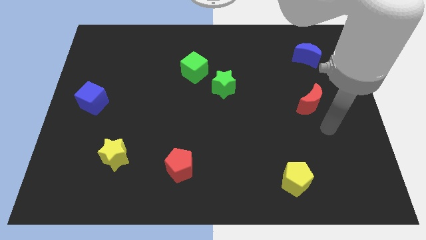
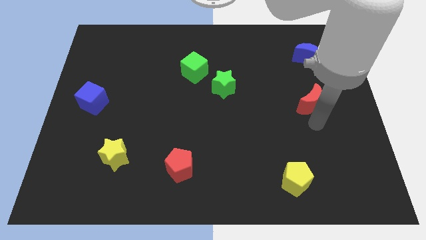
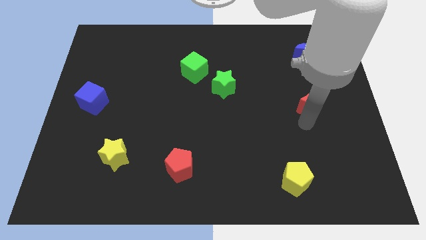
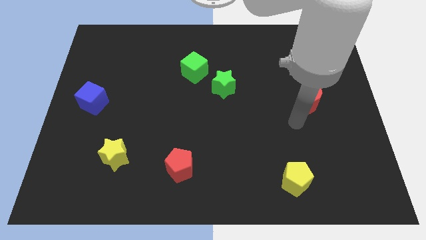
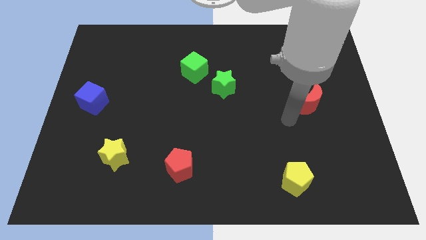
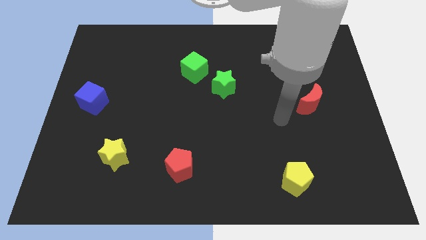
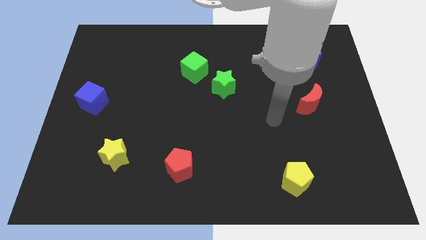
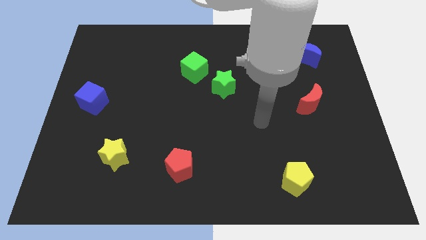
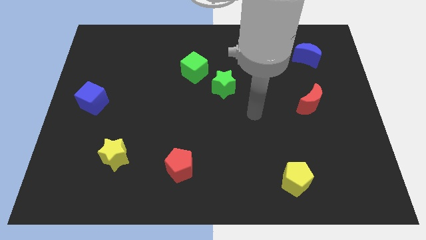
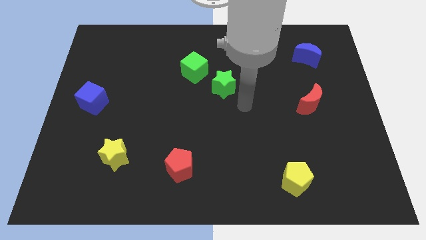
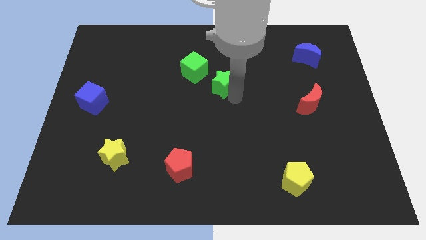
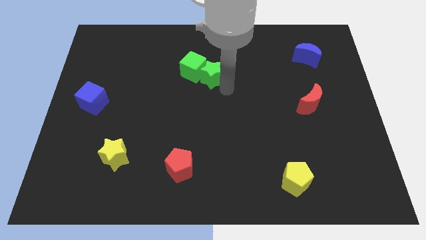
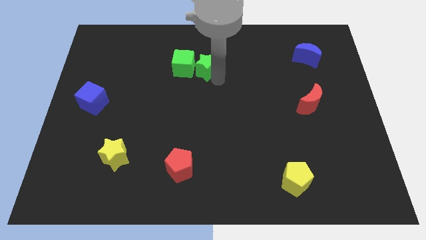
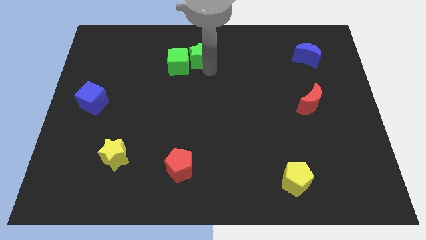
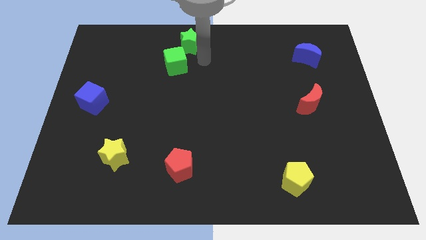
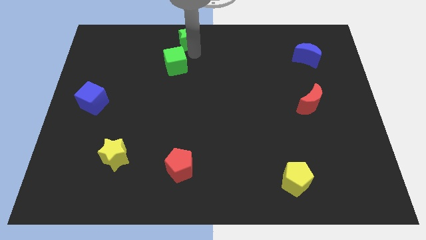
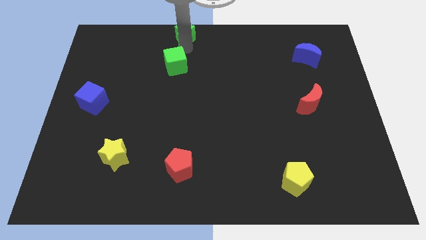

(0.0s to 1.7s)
separate the green cube from the green star

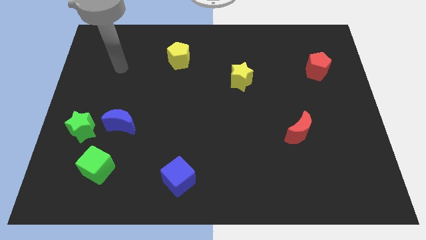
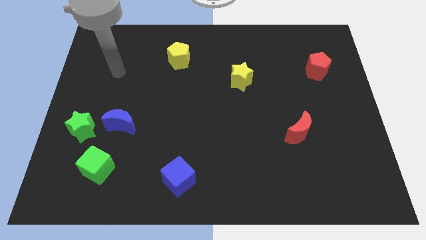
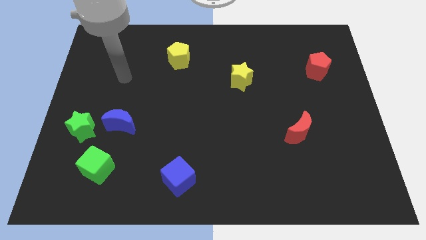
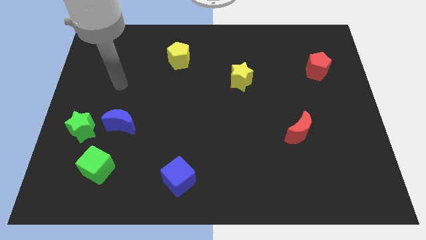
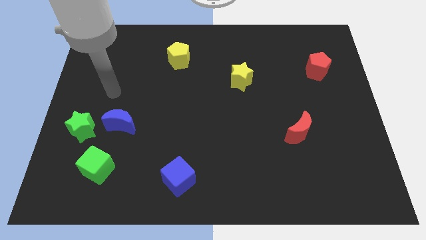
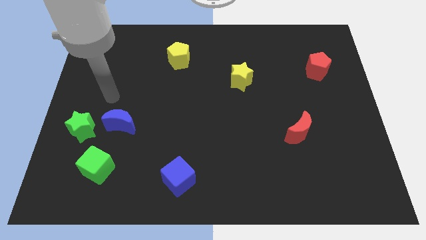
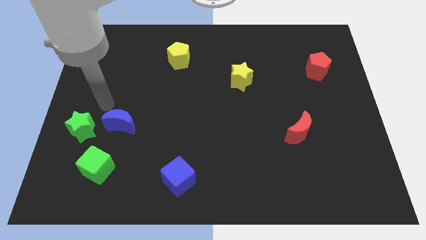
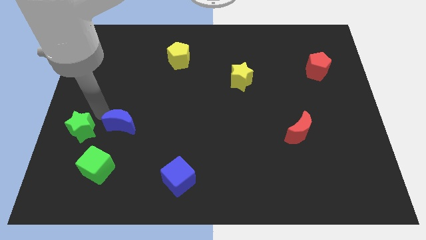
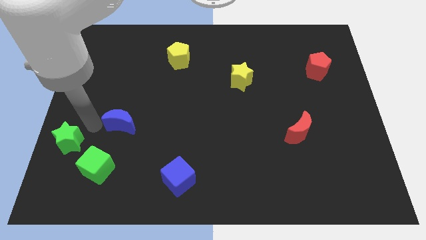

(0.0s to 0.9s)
move the blue moon away from the green star

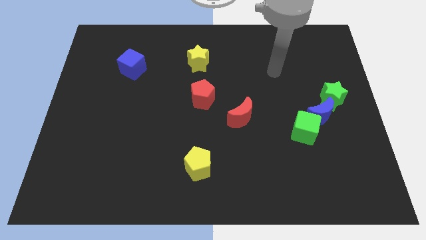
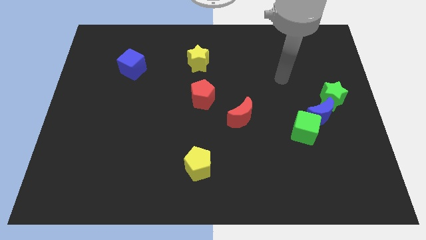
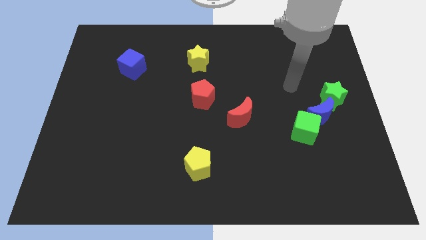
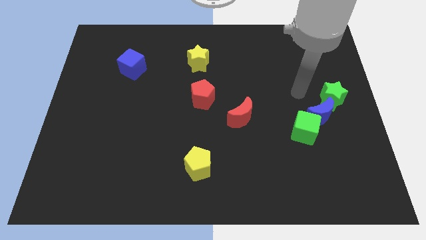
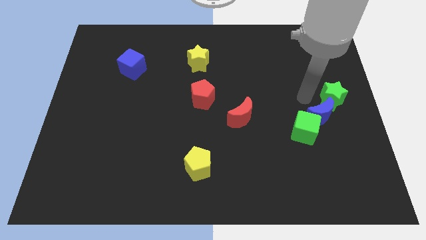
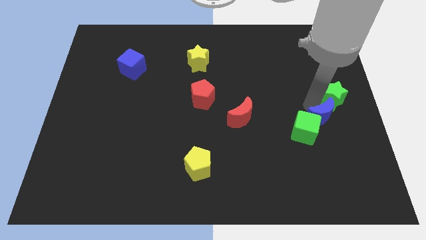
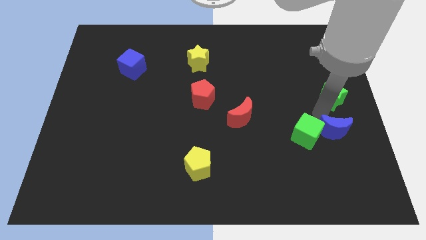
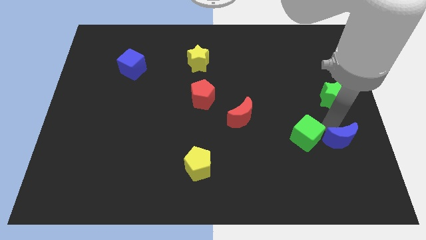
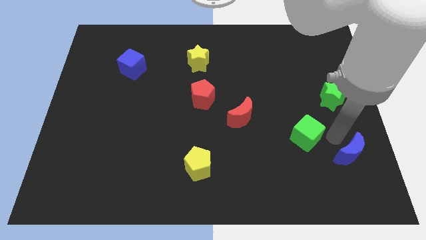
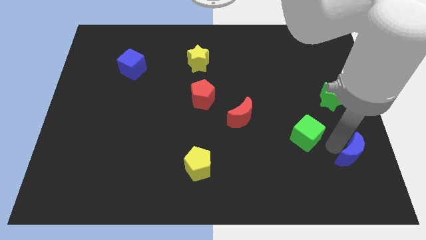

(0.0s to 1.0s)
move the green cube away from the blue moon

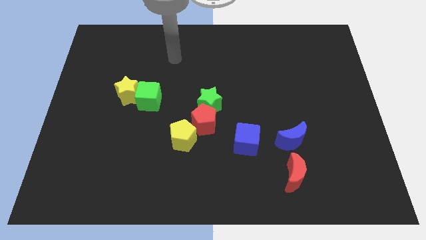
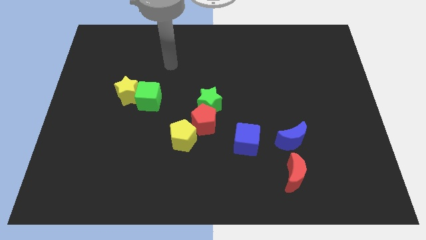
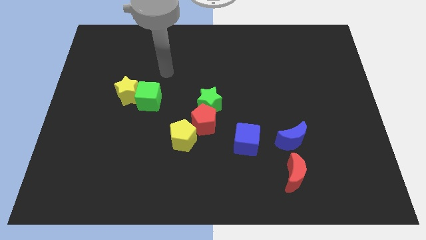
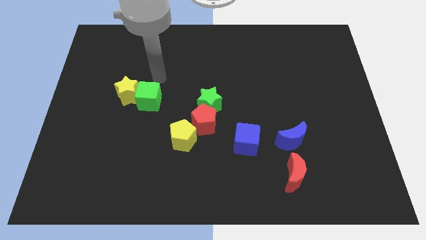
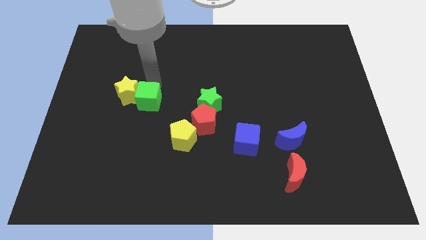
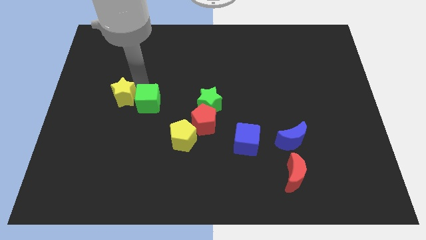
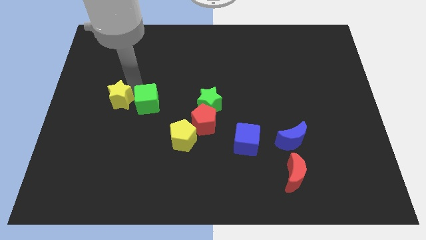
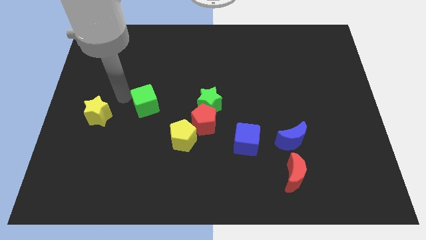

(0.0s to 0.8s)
separate the green cube from the yellow star

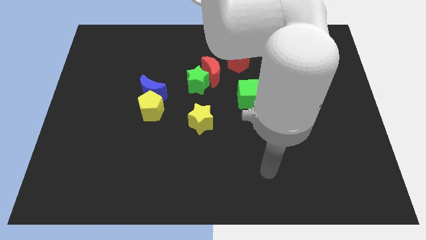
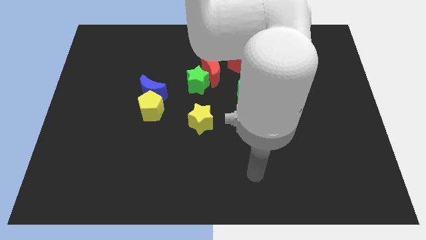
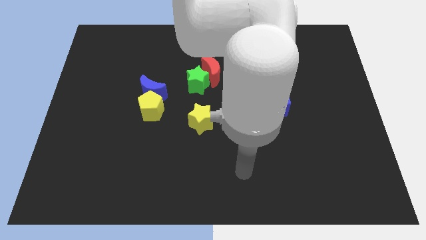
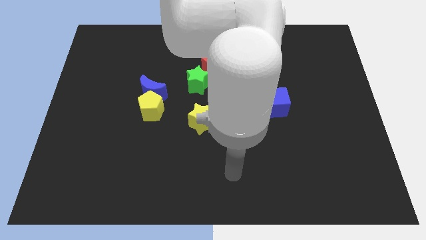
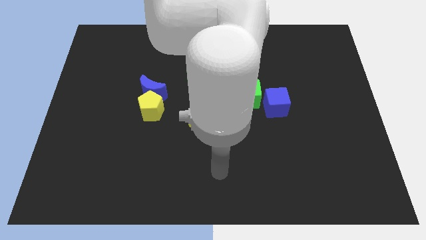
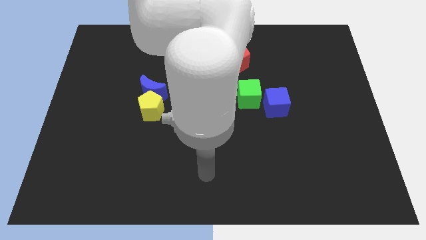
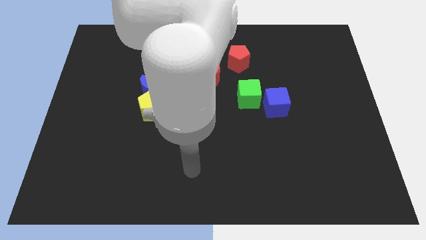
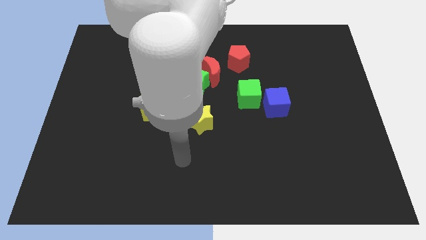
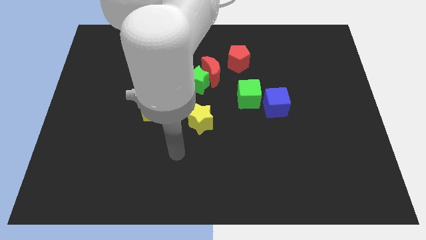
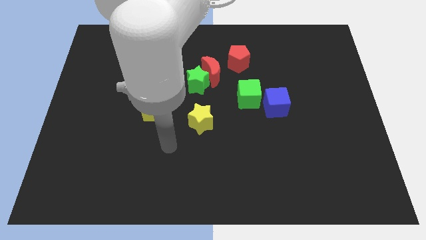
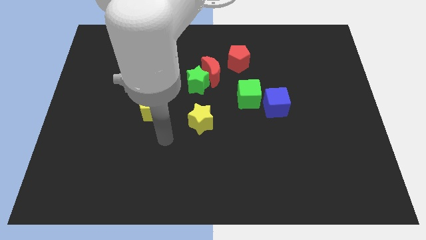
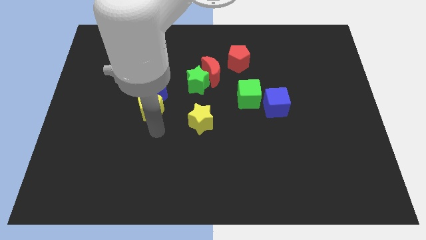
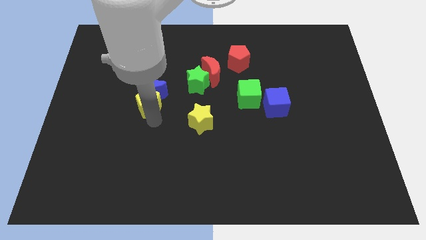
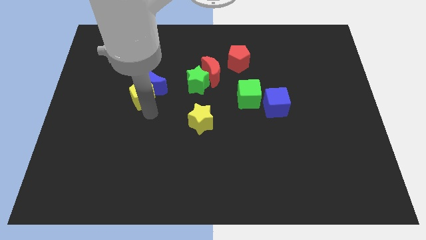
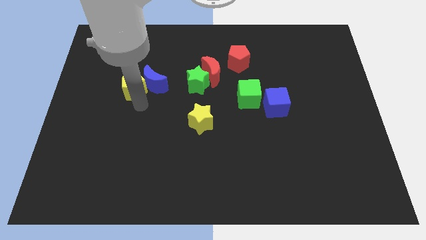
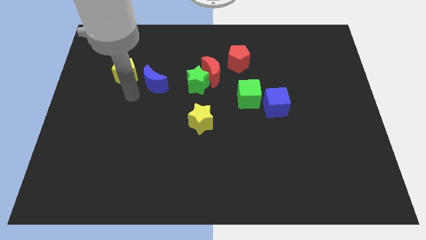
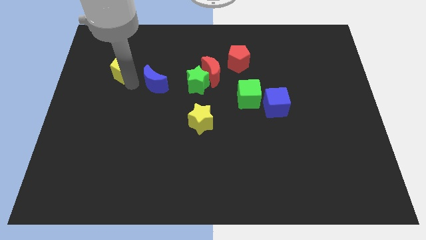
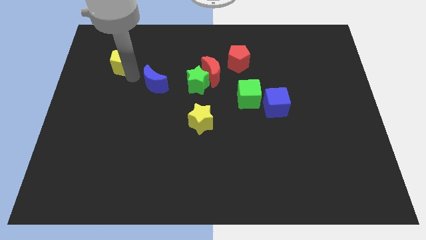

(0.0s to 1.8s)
pull the blue moon apart from the yellow pentagon

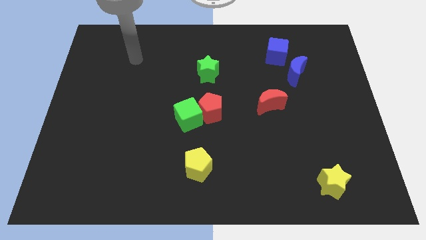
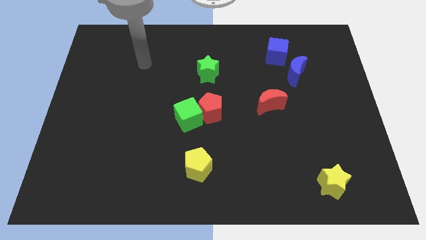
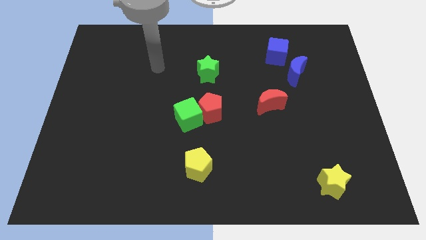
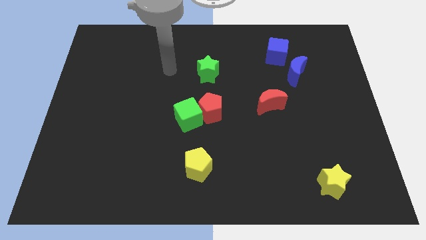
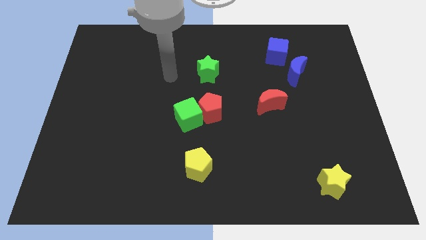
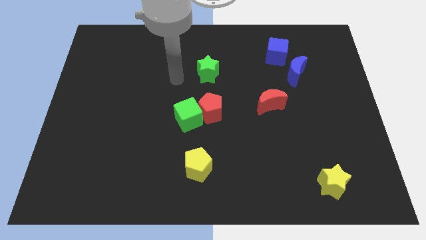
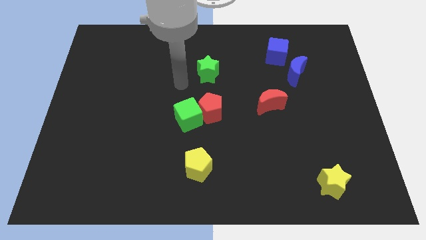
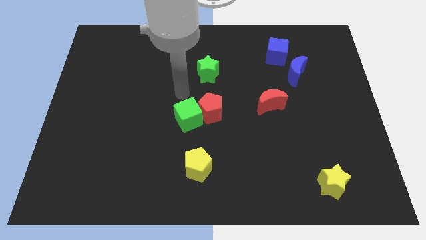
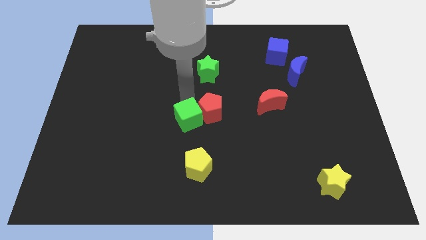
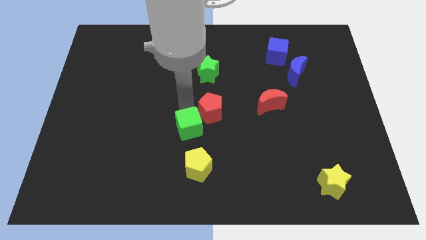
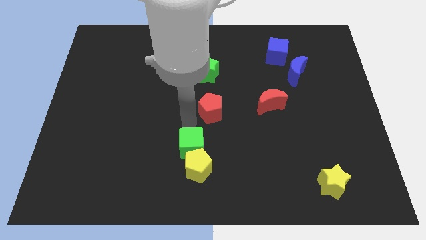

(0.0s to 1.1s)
separate the red pentagon from the green cube

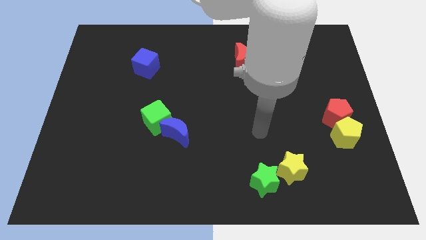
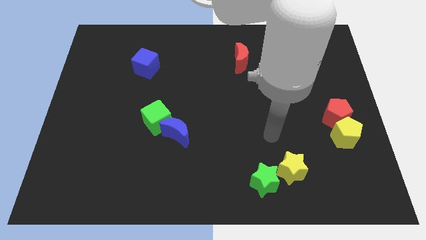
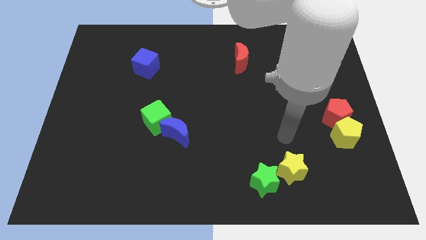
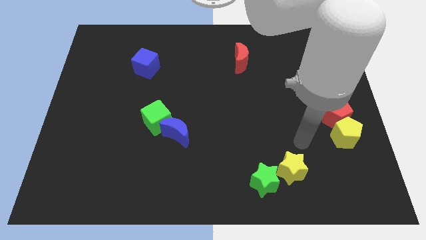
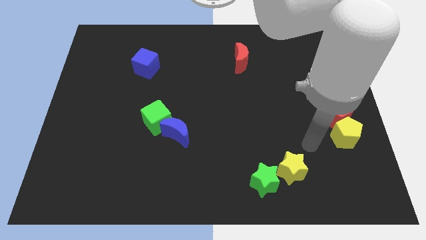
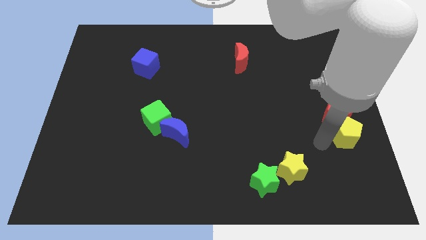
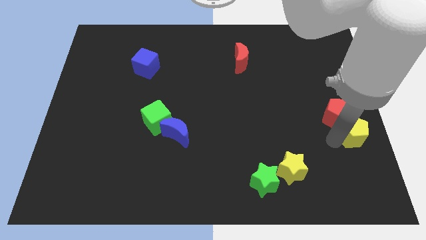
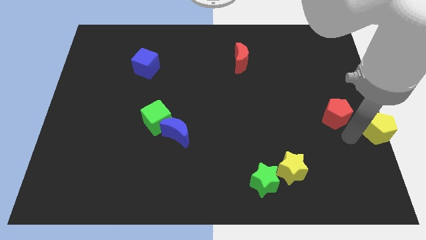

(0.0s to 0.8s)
pull the red pentagon apart from the yellow pentagon

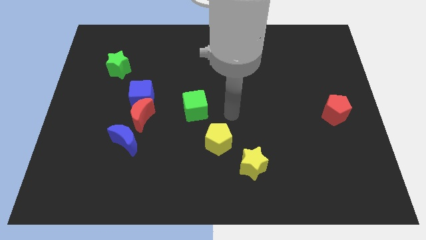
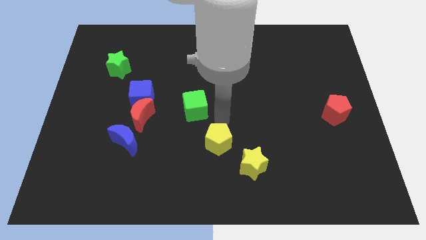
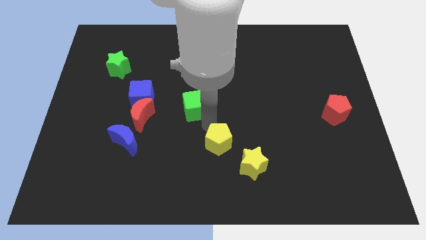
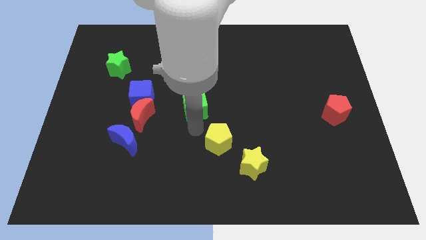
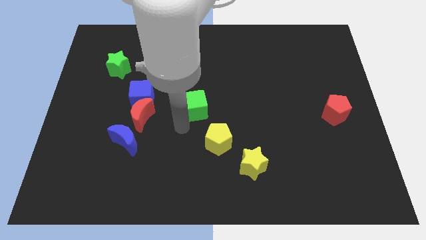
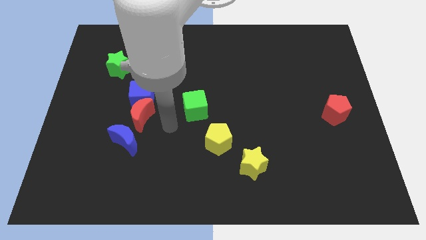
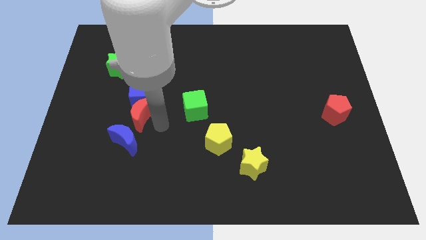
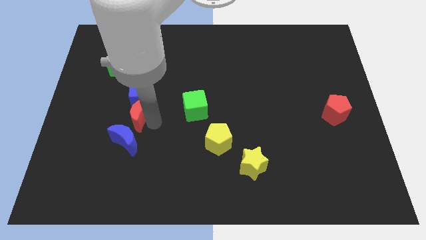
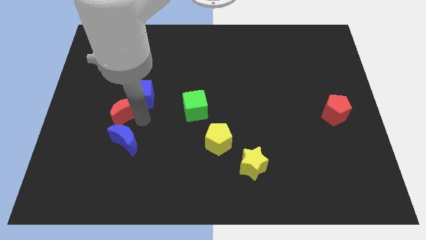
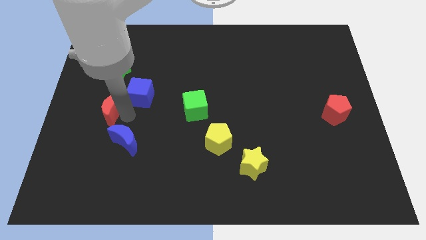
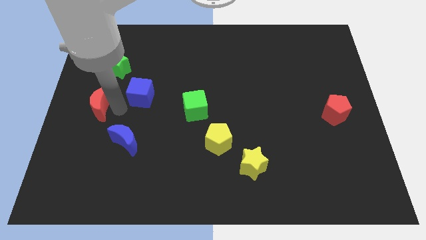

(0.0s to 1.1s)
move the blue cube away from the red moon

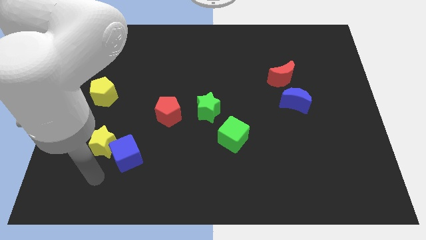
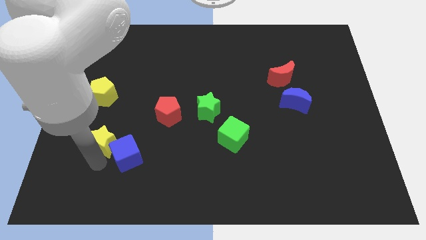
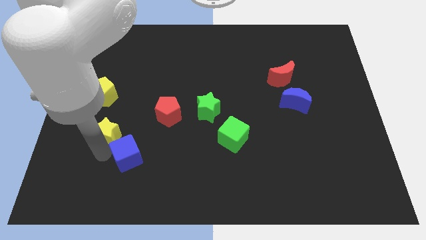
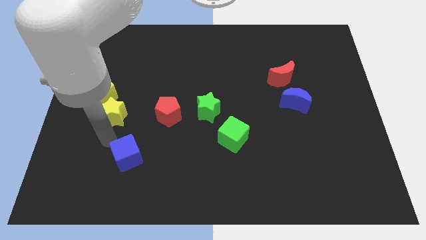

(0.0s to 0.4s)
move the blue cube away from the yellow star
